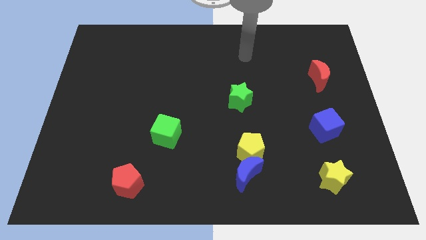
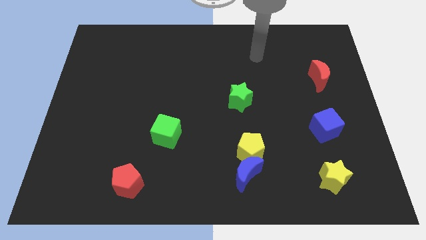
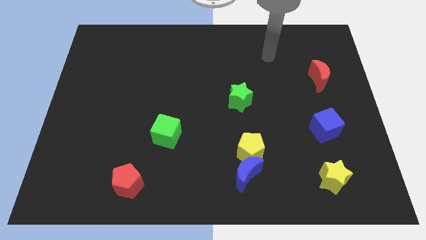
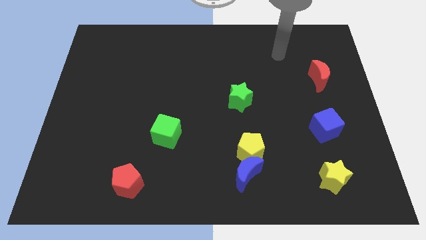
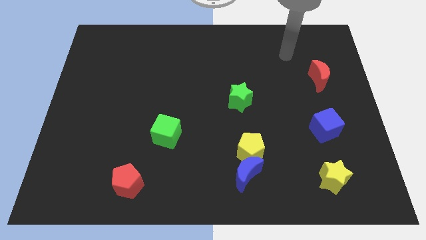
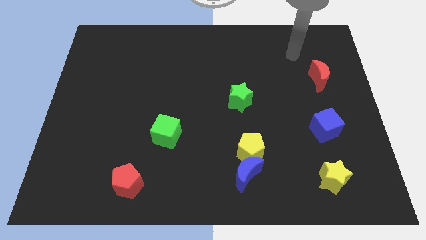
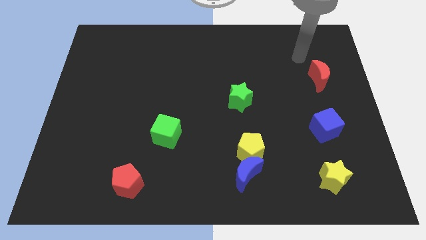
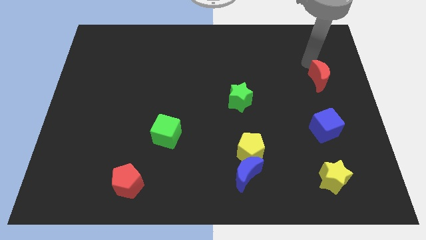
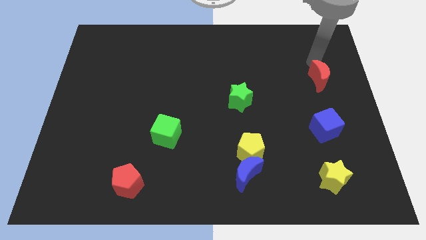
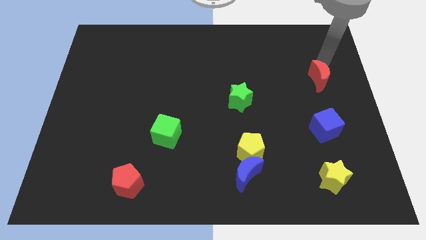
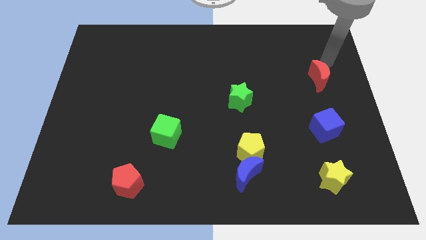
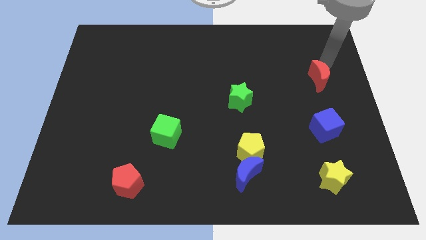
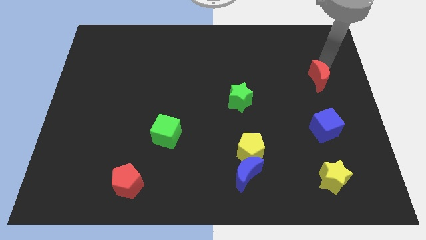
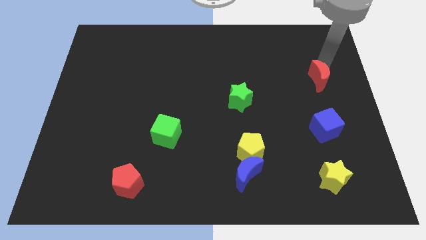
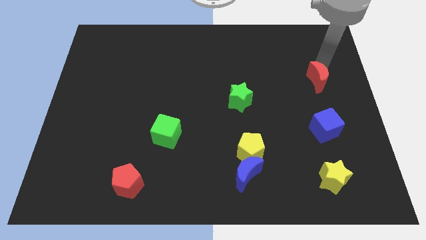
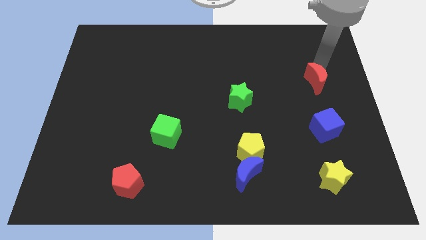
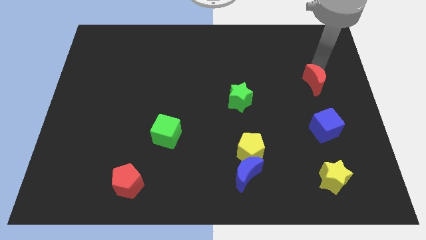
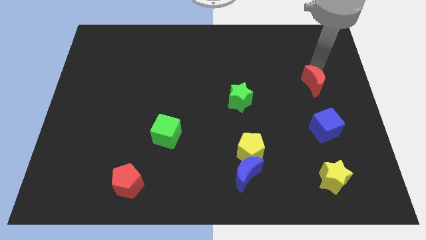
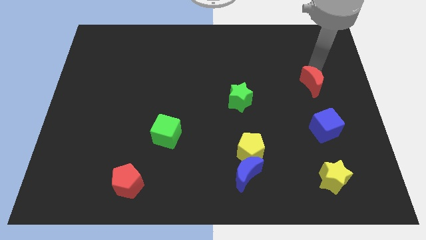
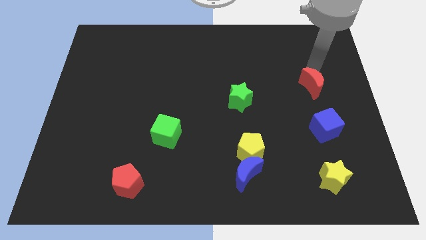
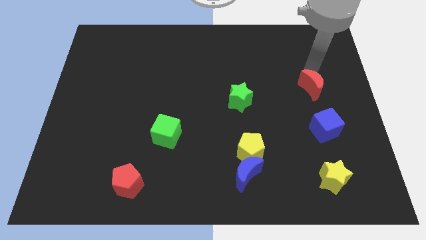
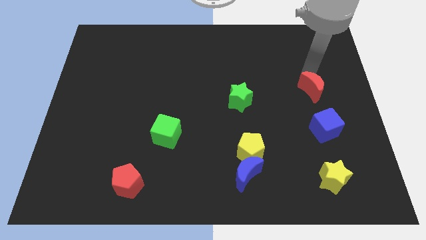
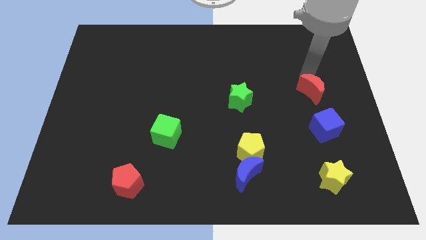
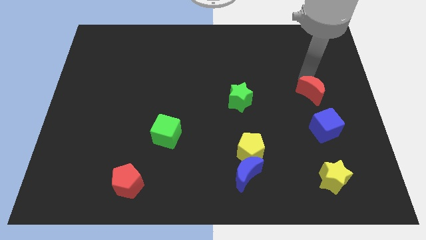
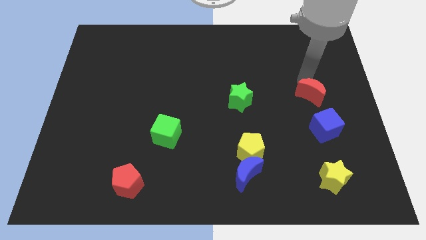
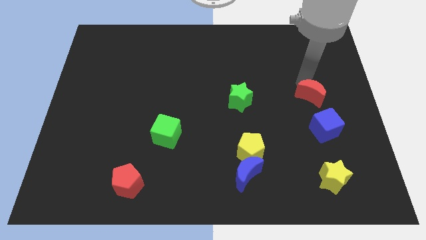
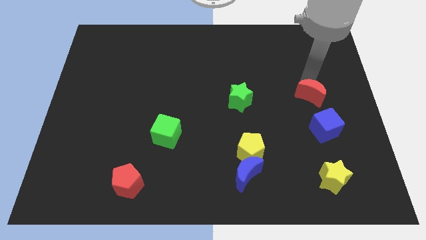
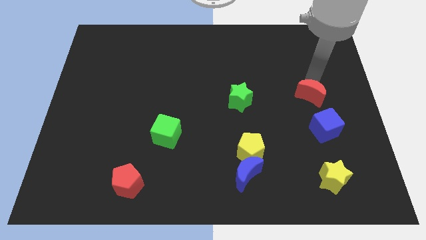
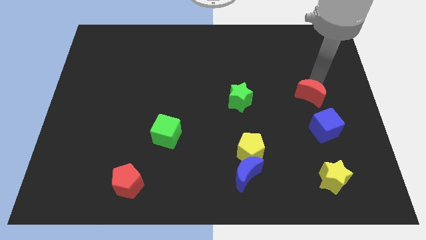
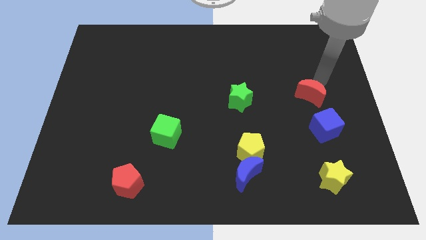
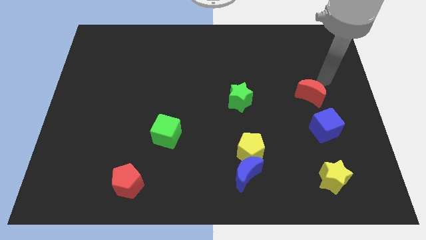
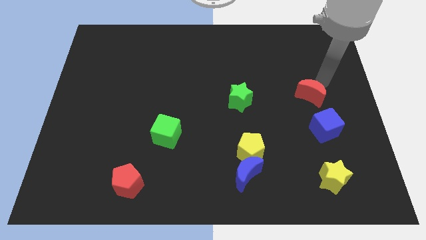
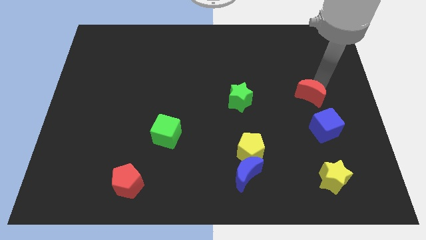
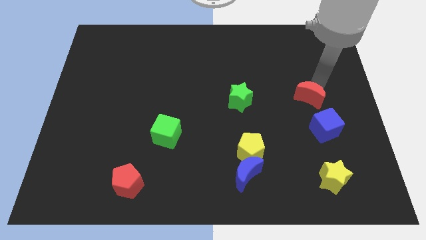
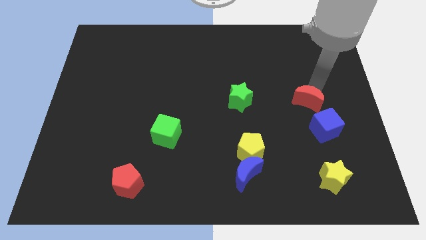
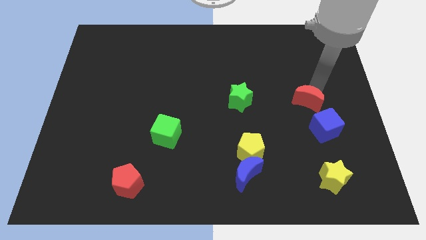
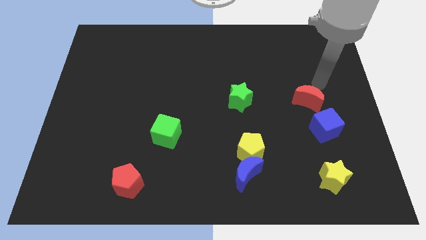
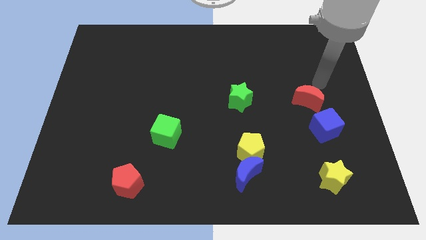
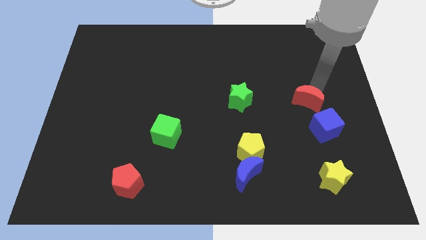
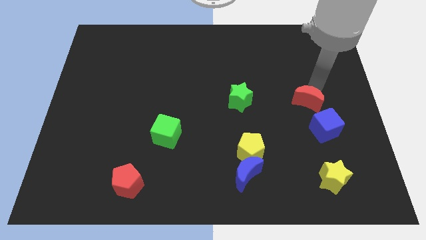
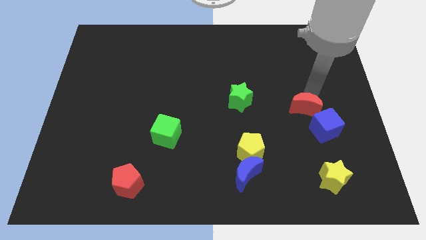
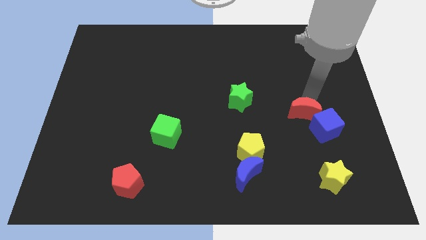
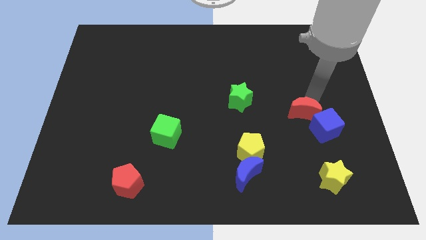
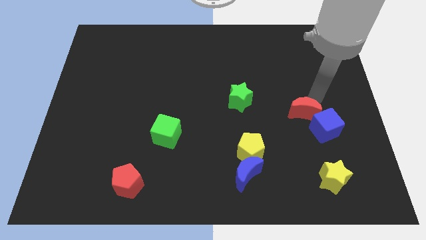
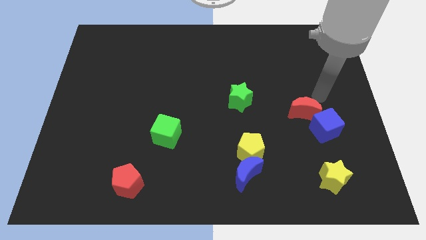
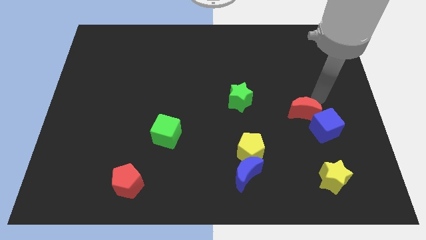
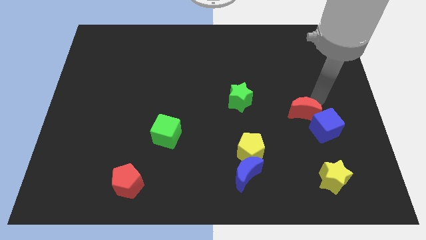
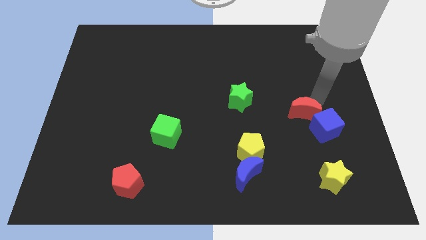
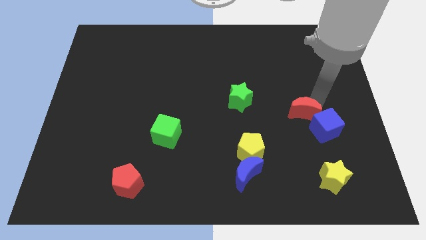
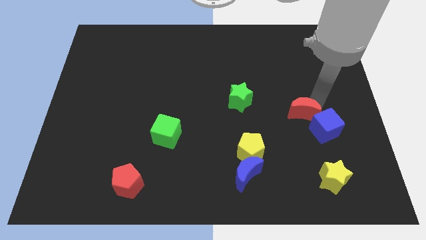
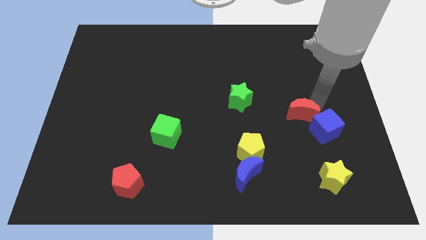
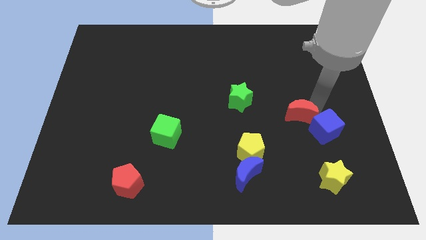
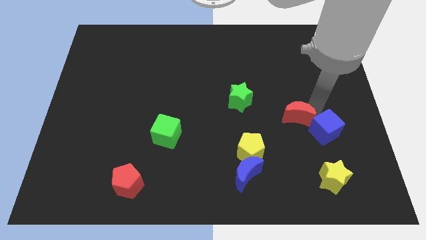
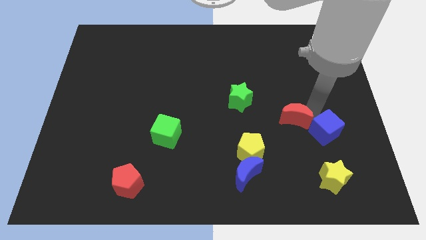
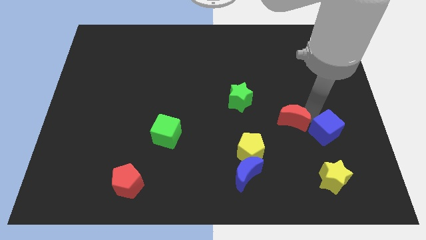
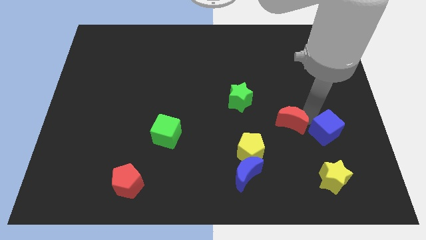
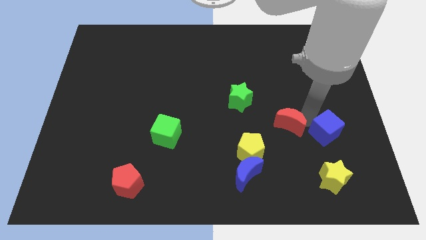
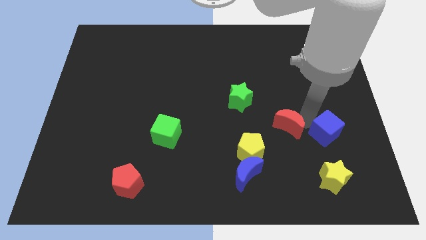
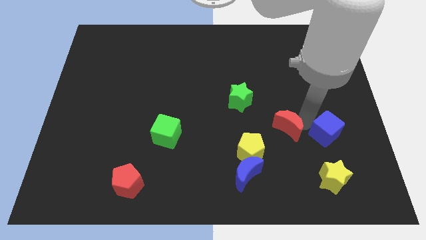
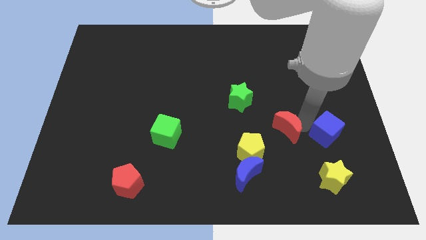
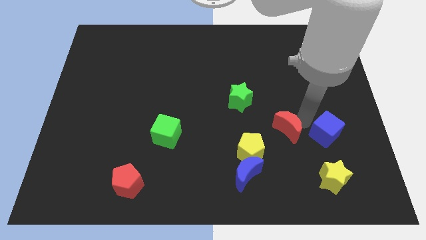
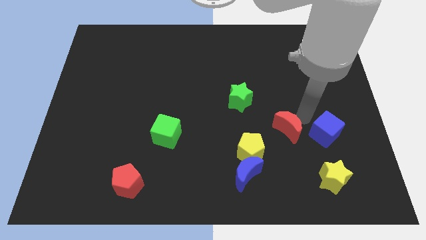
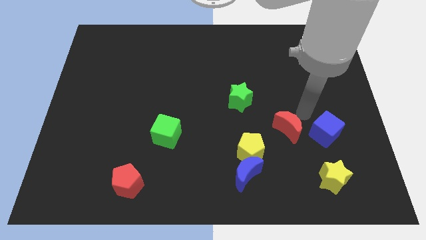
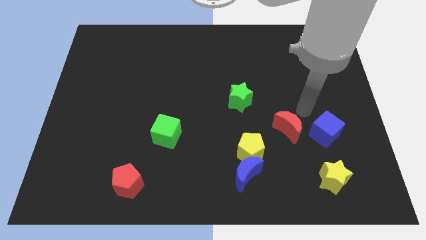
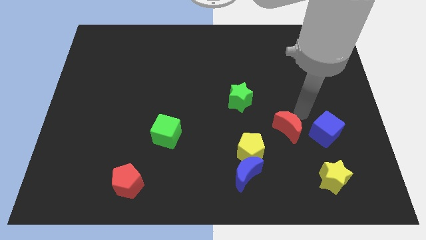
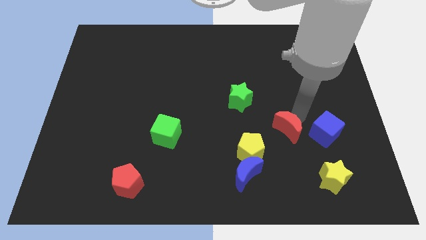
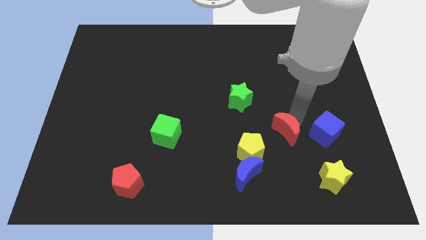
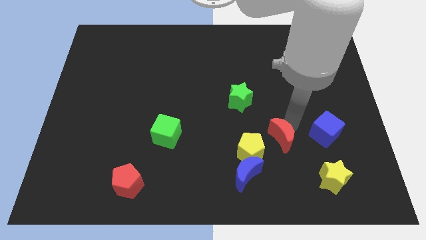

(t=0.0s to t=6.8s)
move the red moon to the top right of the blue moon

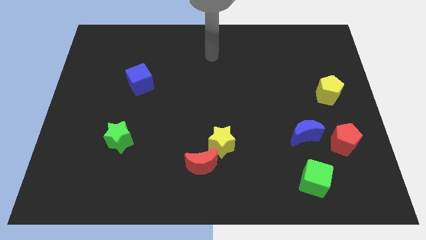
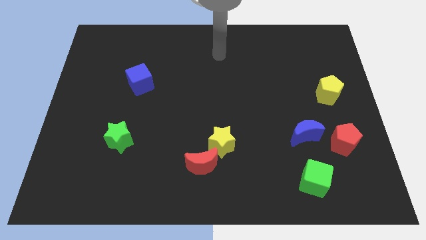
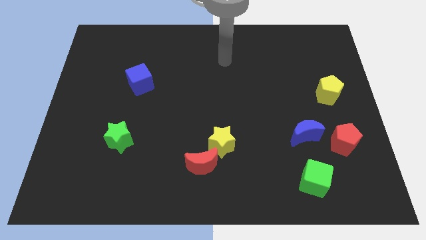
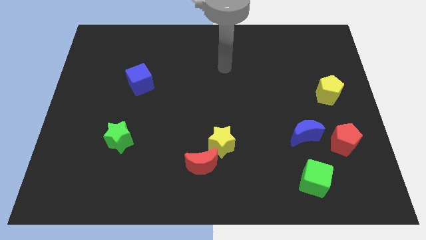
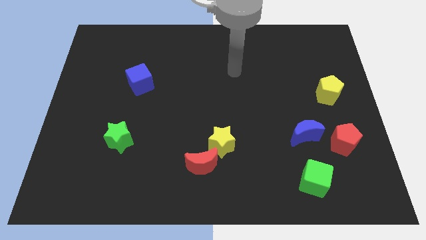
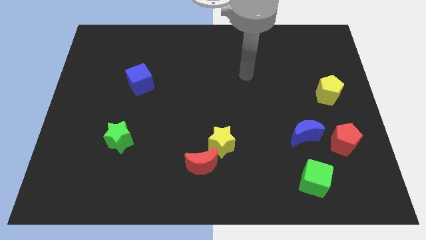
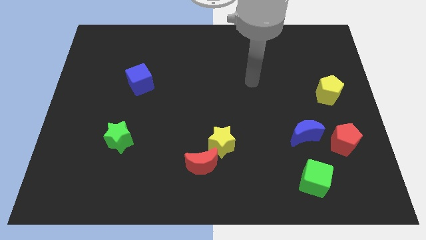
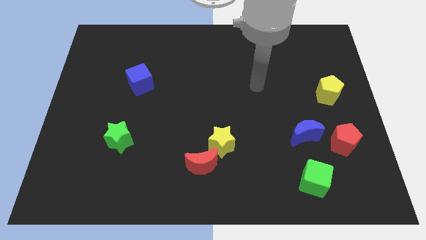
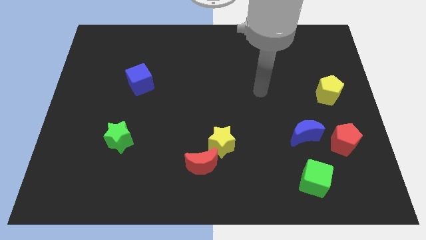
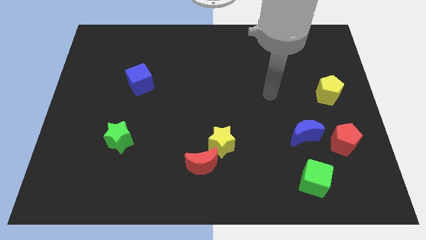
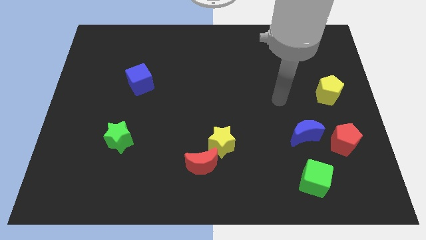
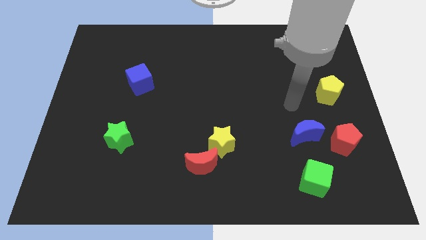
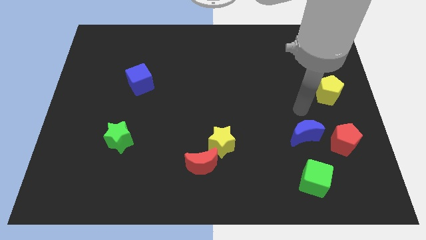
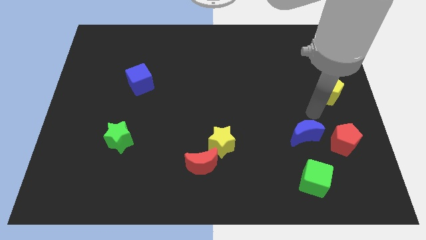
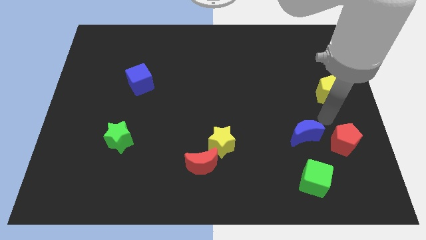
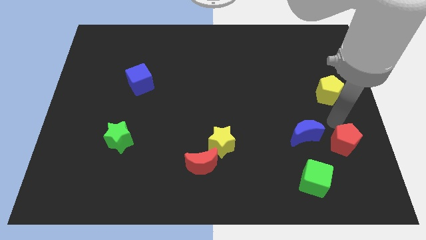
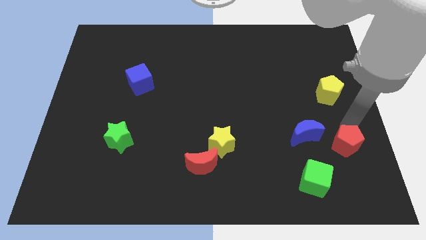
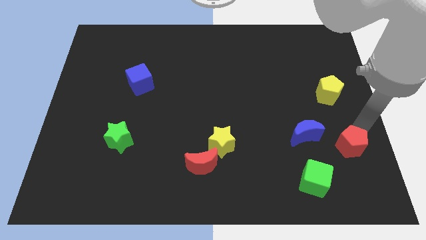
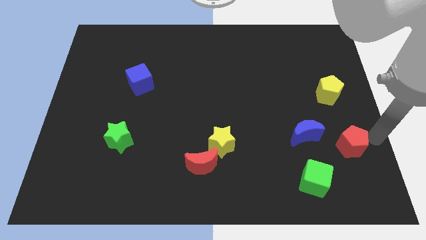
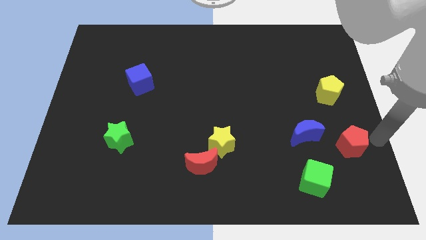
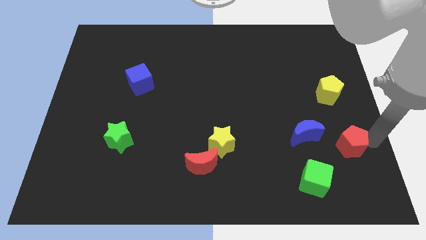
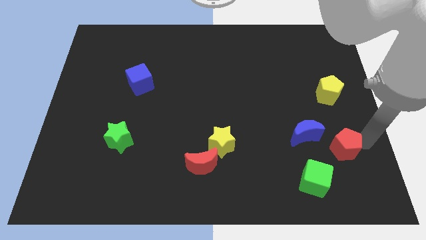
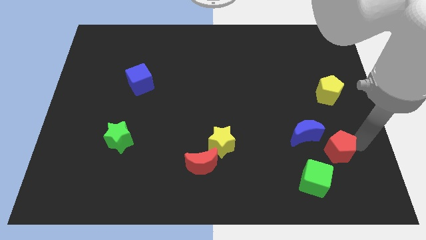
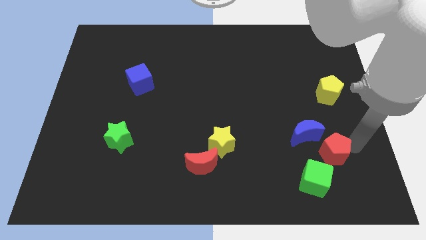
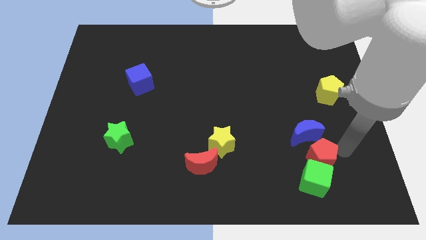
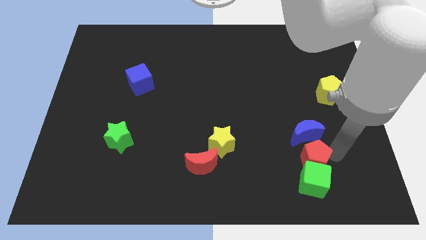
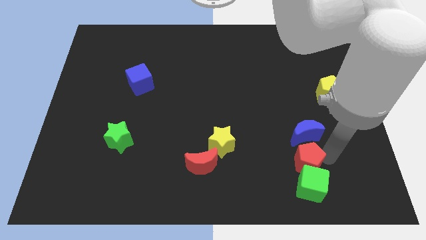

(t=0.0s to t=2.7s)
move the red pentagon to the bottom left of the blue moon
